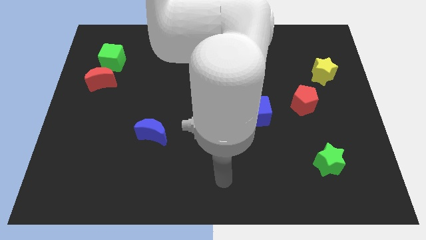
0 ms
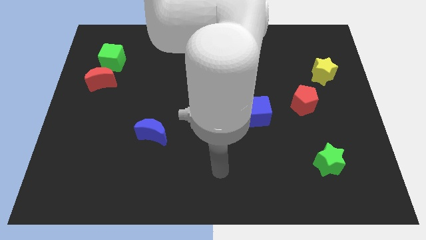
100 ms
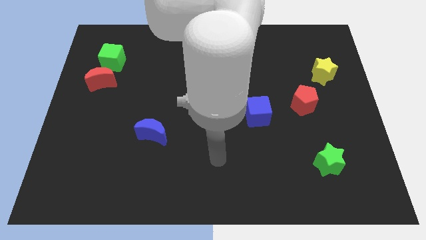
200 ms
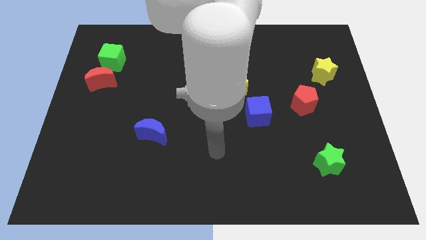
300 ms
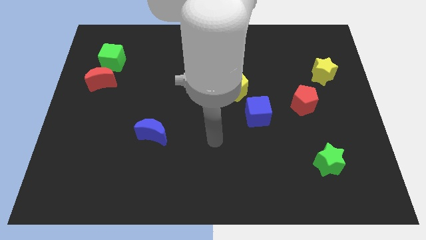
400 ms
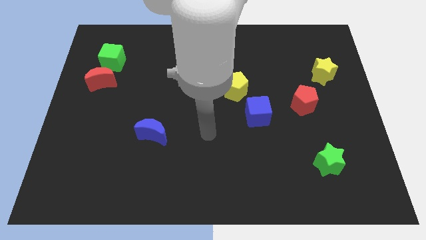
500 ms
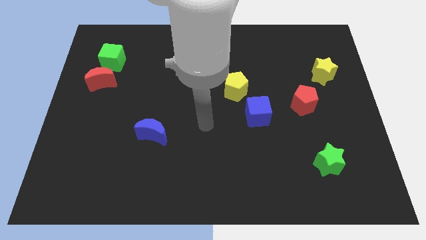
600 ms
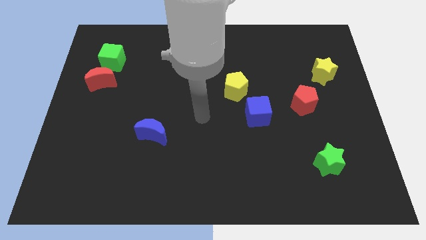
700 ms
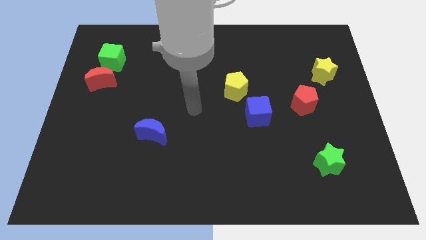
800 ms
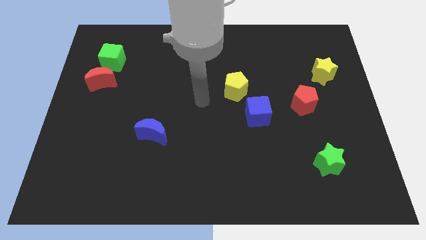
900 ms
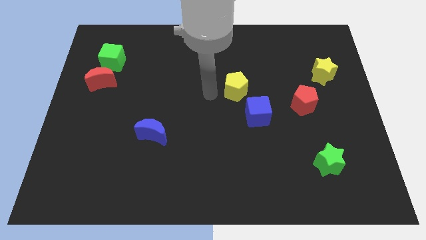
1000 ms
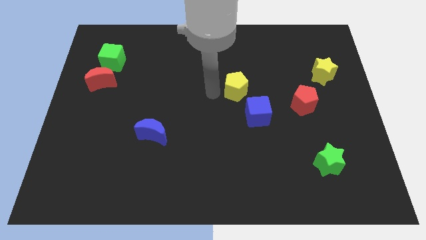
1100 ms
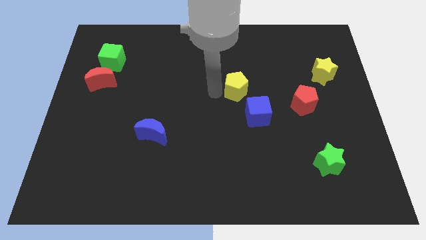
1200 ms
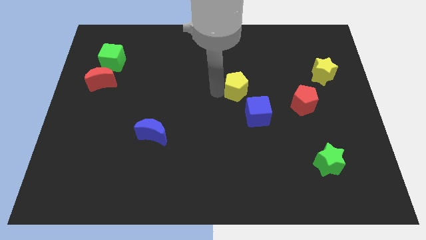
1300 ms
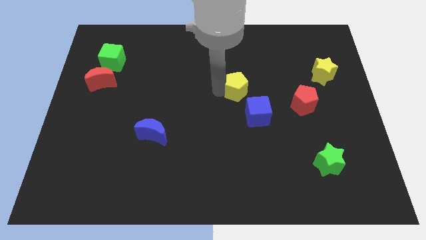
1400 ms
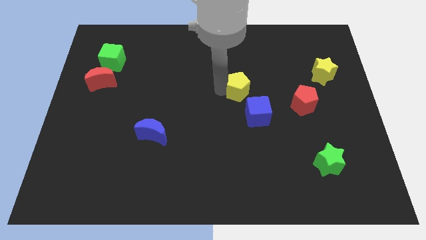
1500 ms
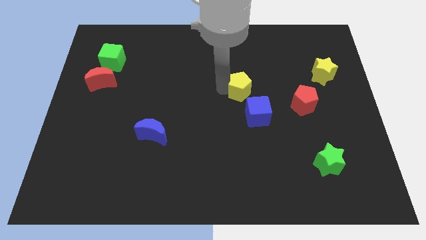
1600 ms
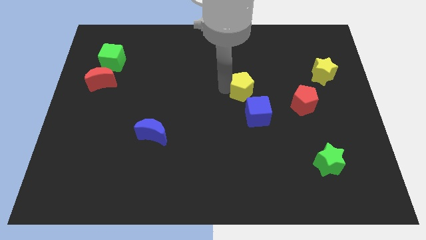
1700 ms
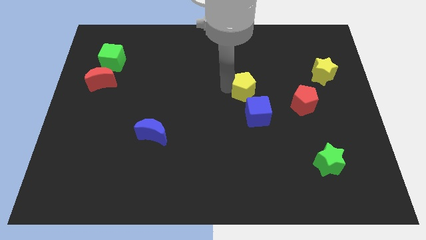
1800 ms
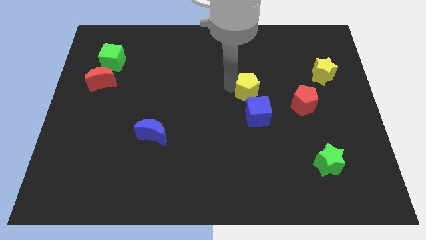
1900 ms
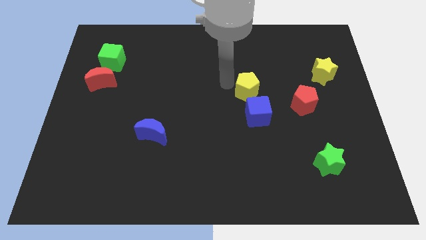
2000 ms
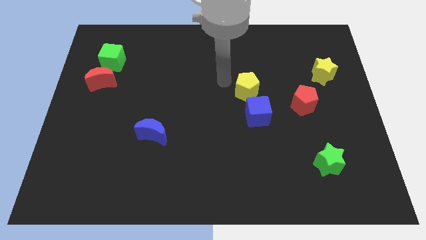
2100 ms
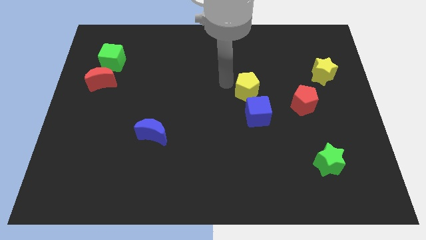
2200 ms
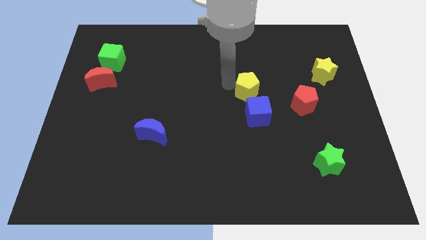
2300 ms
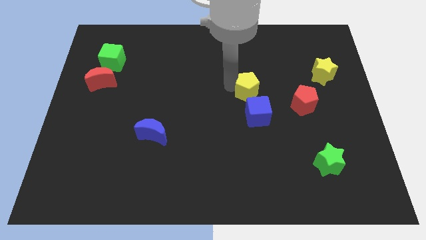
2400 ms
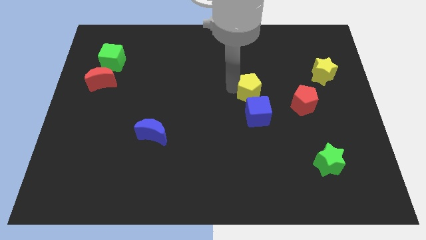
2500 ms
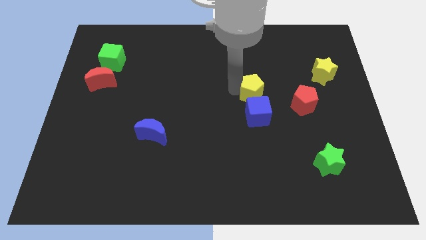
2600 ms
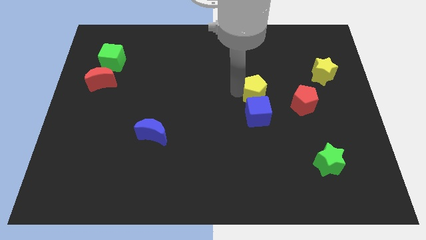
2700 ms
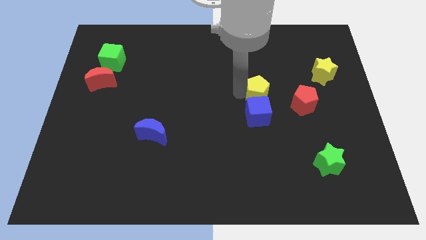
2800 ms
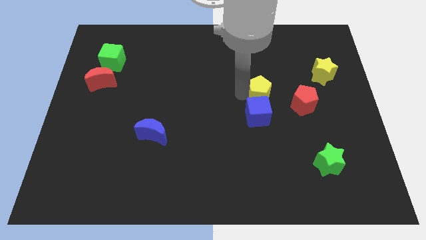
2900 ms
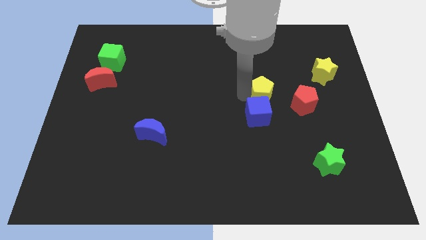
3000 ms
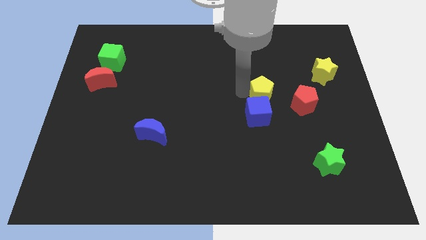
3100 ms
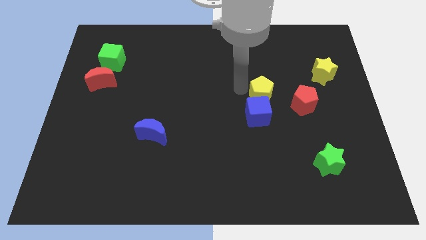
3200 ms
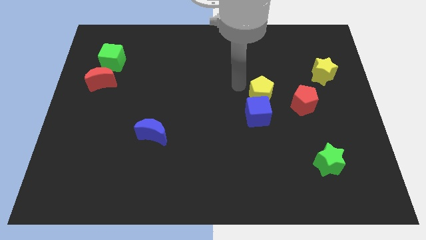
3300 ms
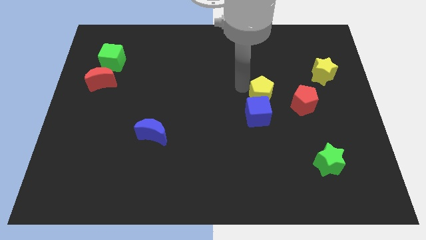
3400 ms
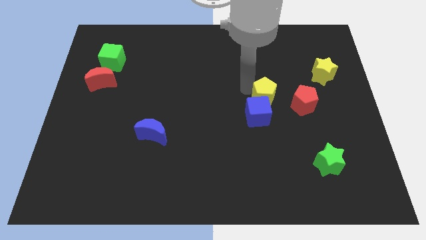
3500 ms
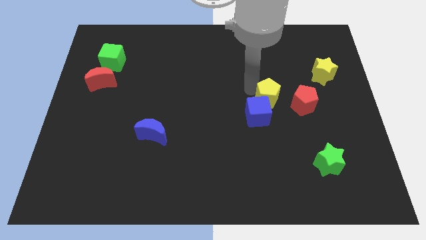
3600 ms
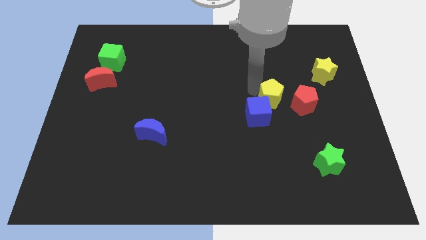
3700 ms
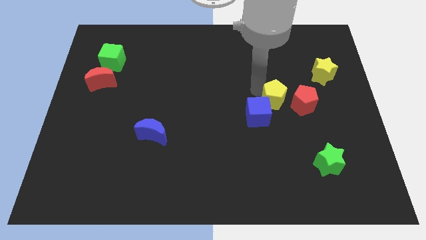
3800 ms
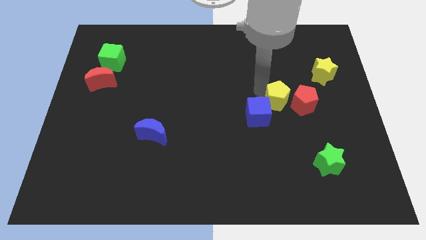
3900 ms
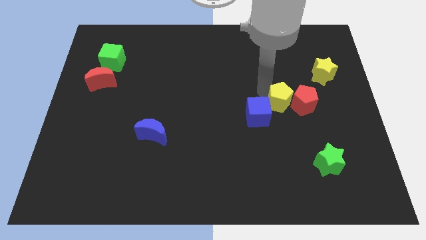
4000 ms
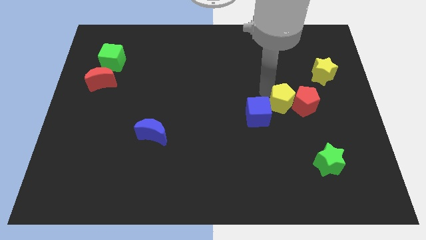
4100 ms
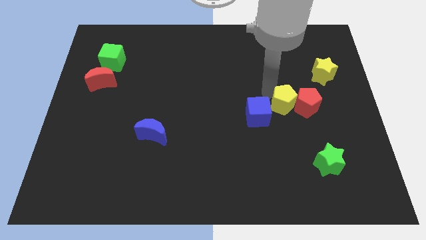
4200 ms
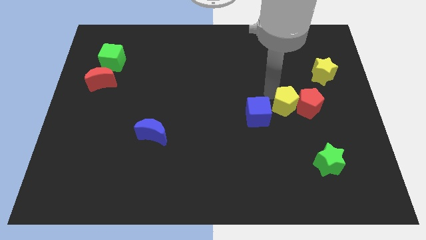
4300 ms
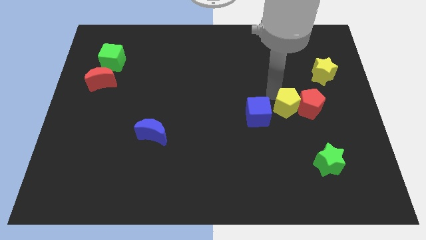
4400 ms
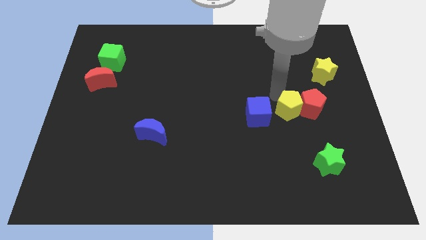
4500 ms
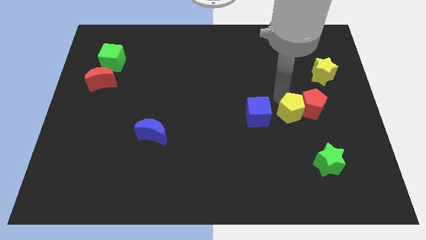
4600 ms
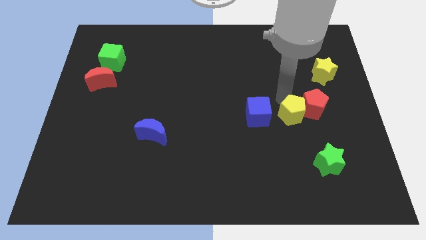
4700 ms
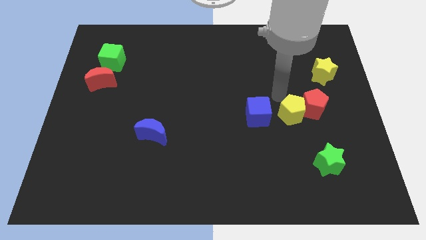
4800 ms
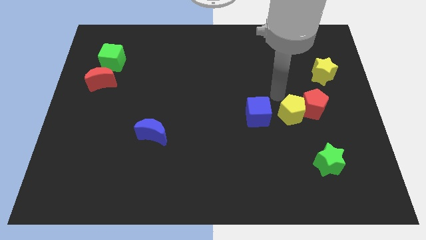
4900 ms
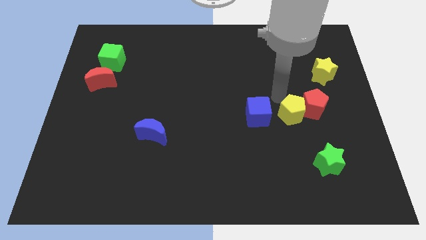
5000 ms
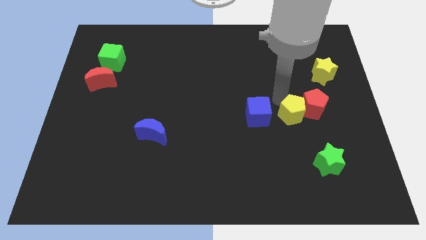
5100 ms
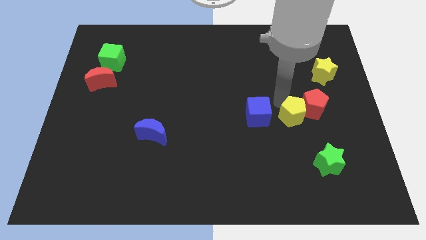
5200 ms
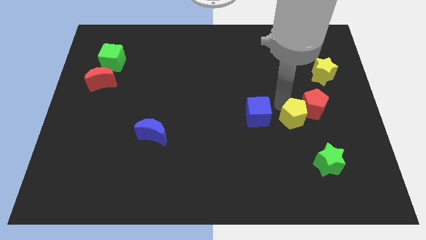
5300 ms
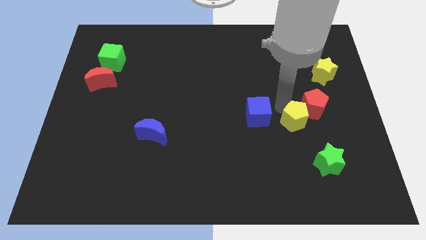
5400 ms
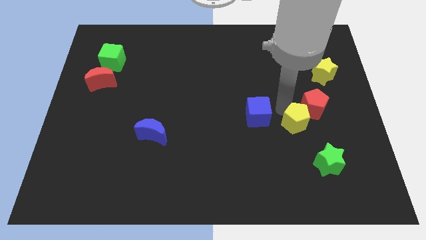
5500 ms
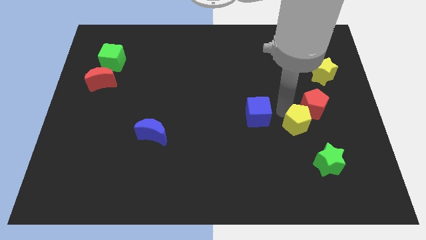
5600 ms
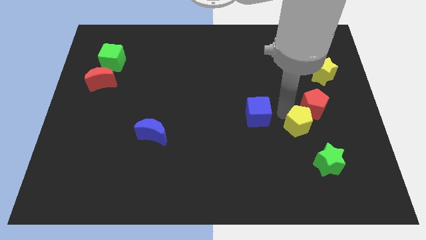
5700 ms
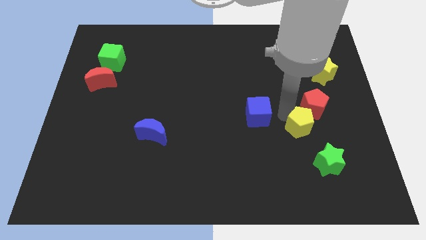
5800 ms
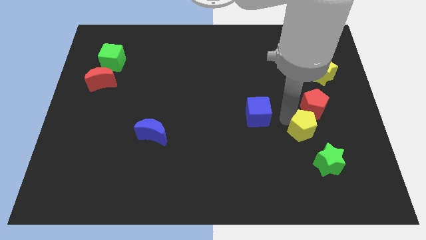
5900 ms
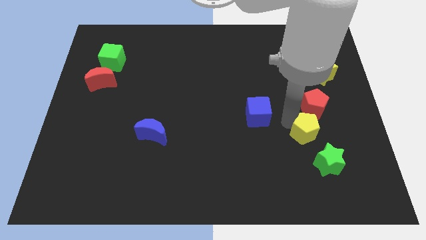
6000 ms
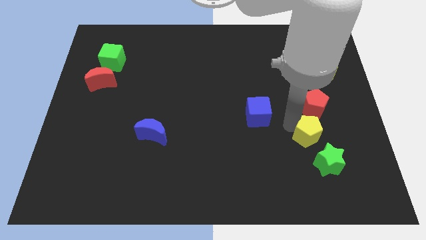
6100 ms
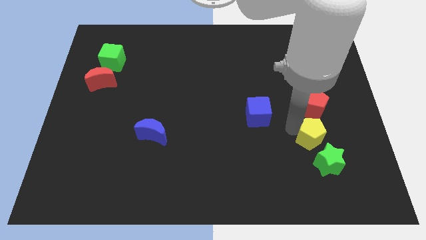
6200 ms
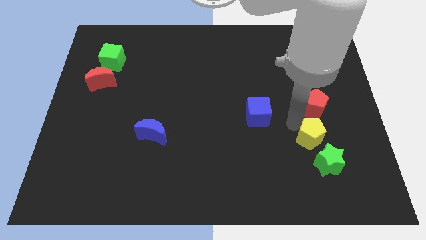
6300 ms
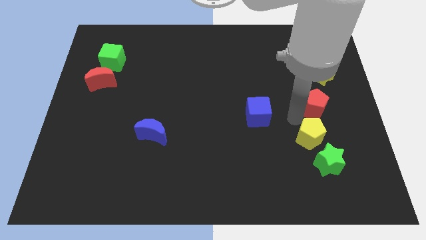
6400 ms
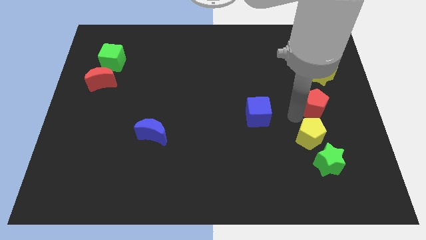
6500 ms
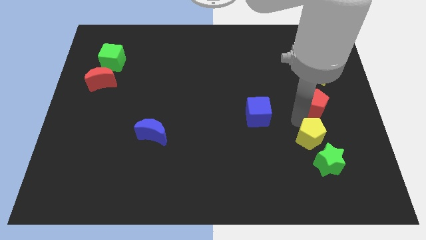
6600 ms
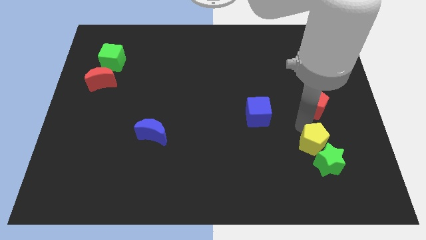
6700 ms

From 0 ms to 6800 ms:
put the yellow pentagon next to the green star
